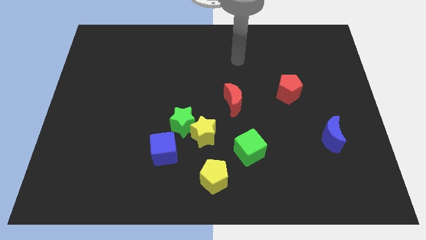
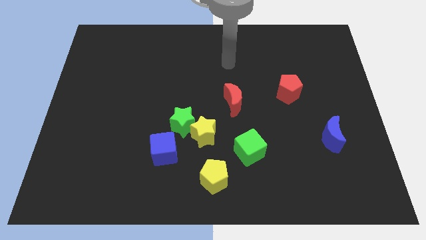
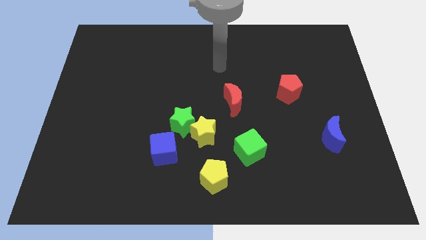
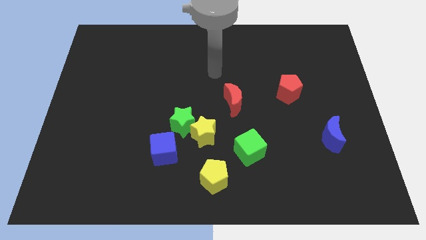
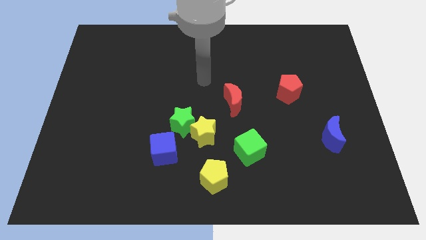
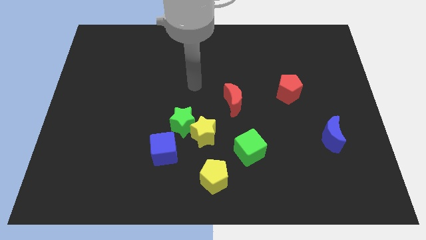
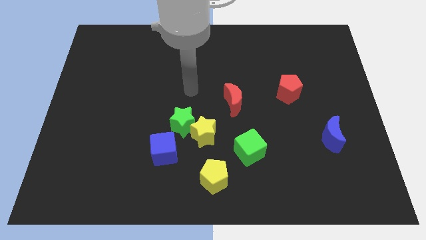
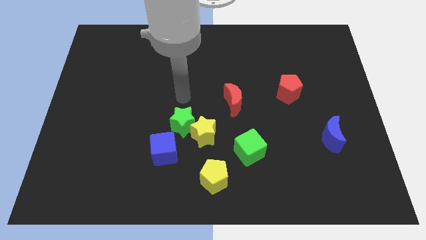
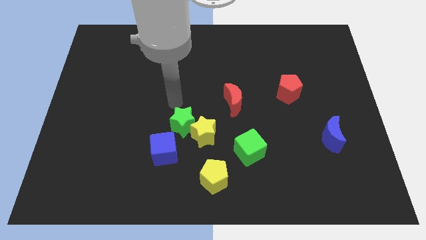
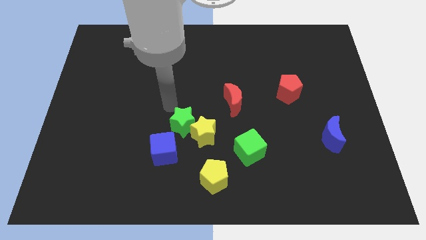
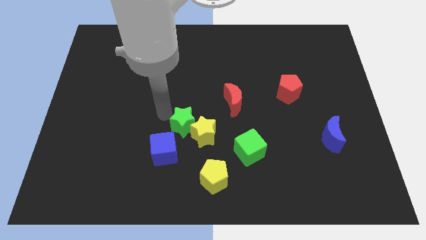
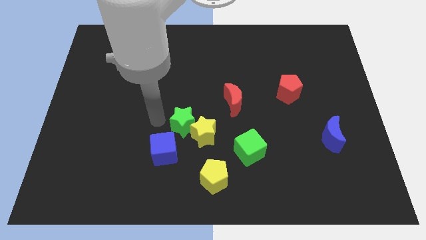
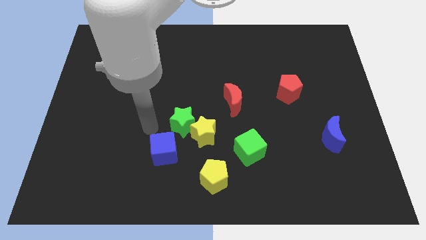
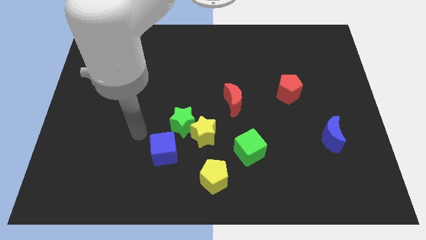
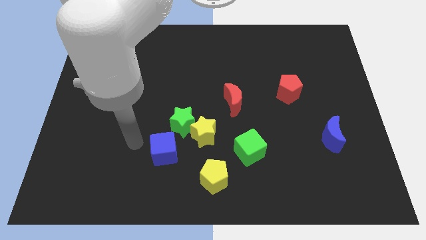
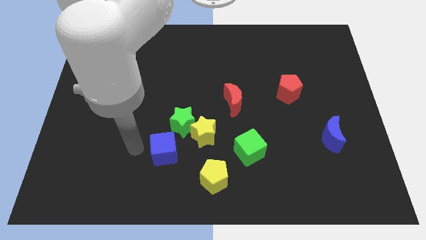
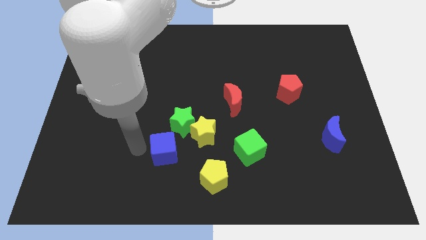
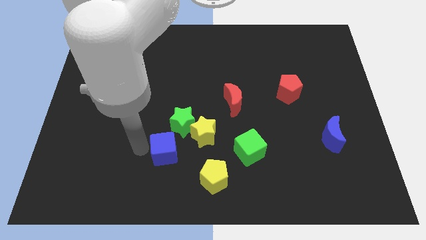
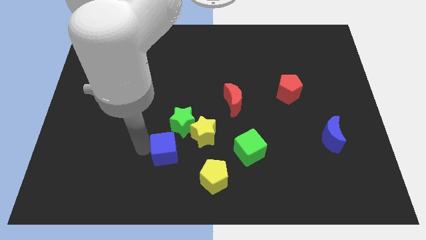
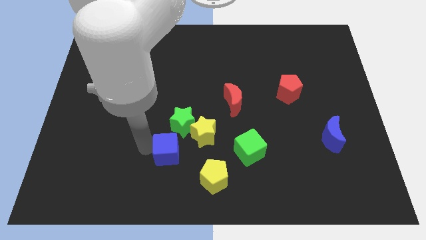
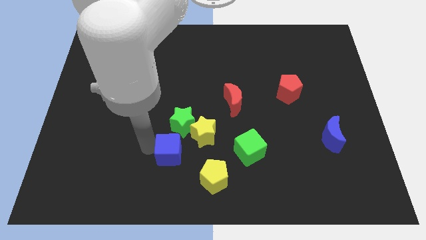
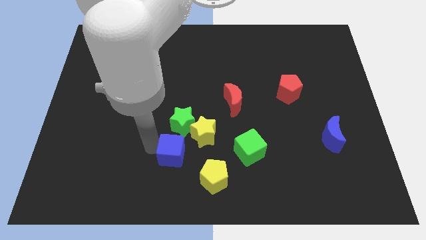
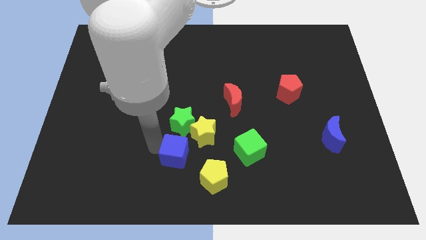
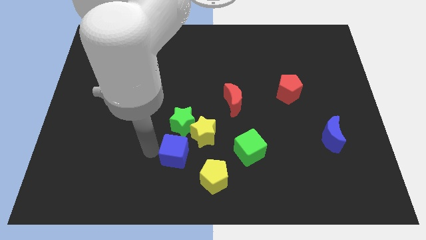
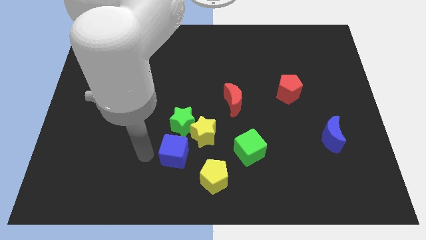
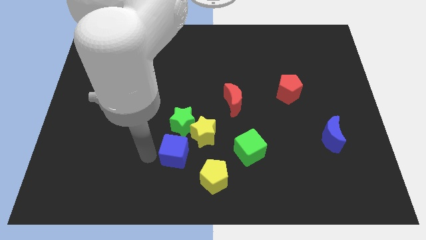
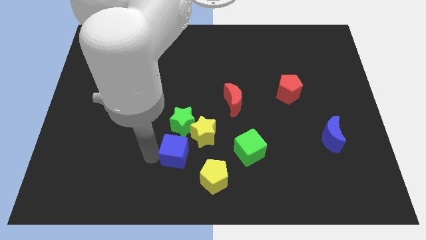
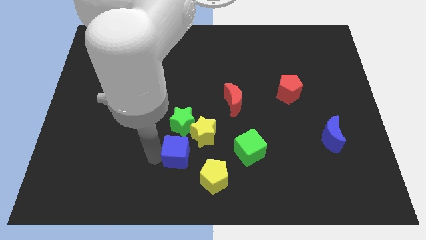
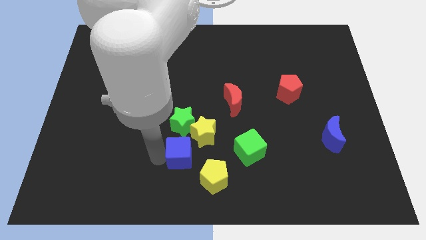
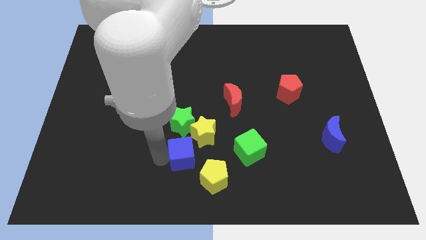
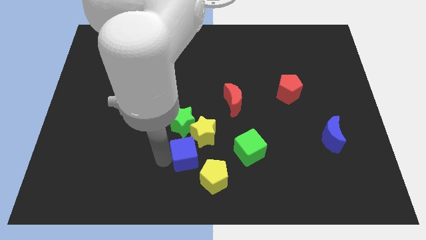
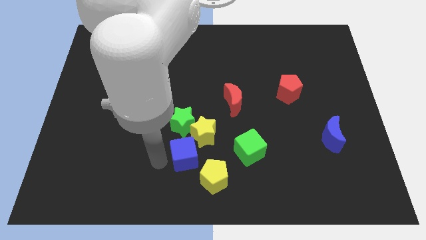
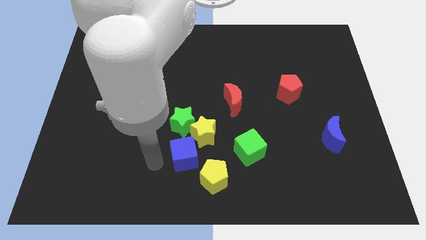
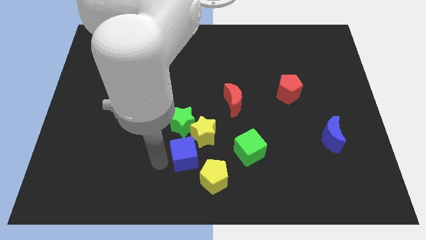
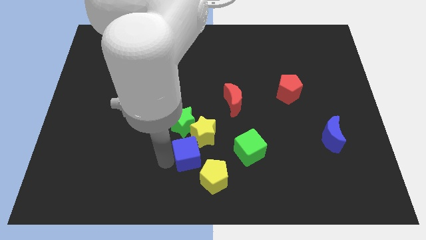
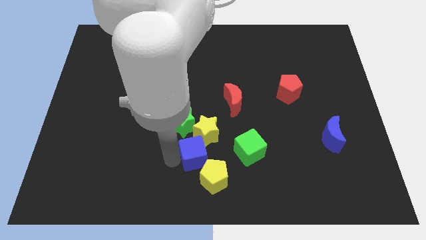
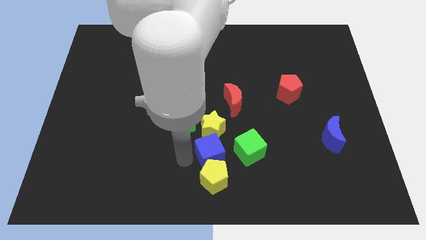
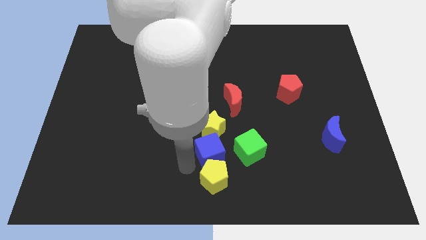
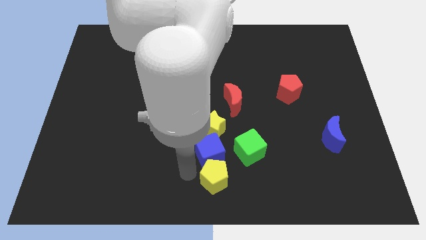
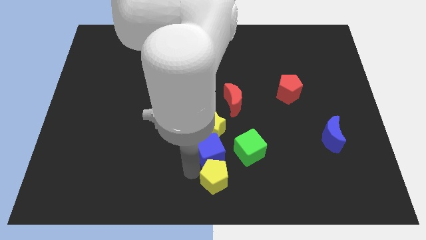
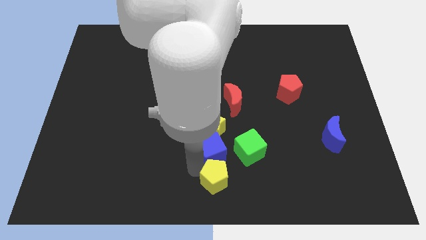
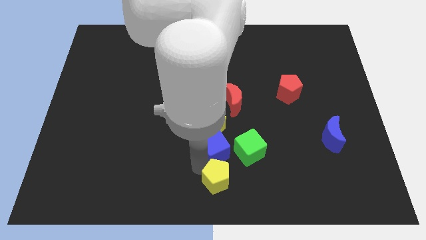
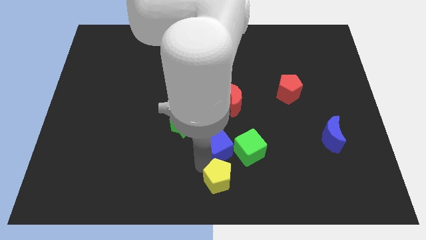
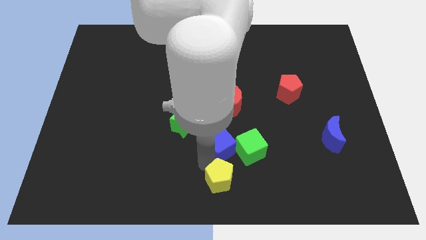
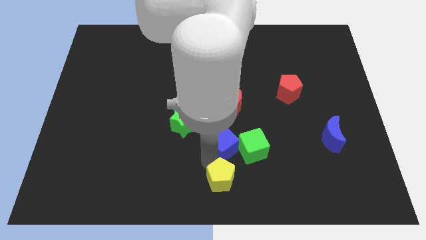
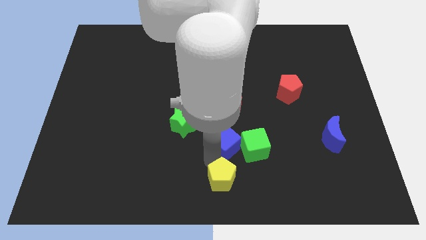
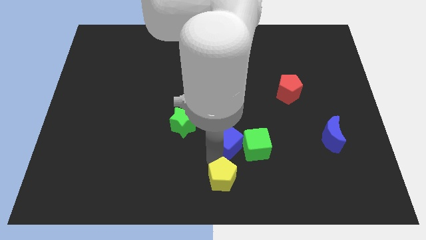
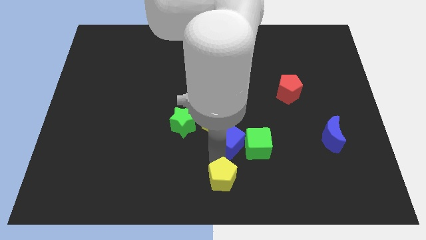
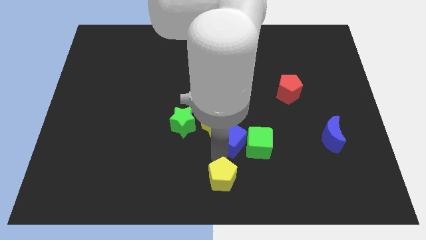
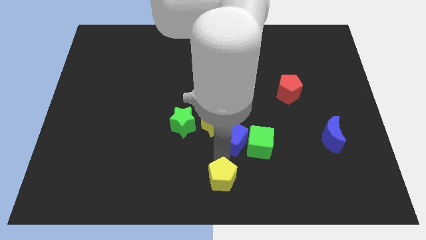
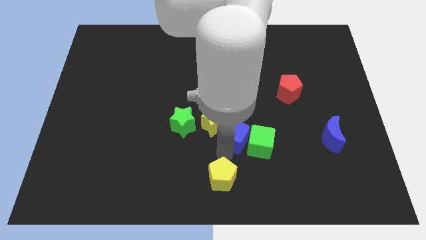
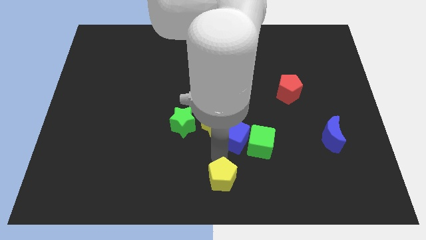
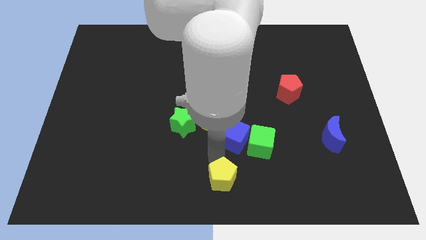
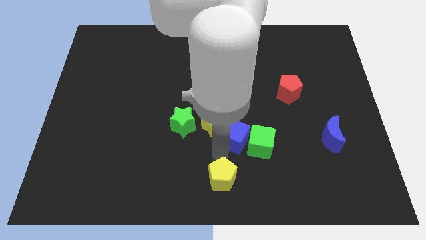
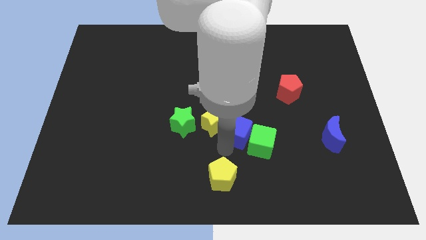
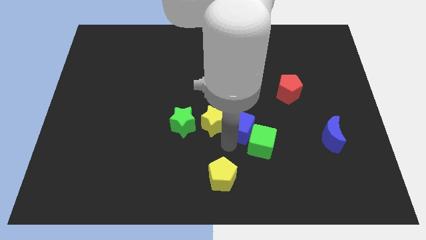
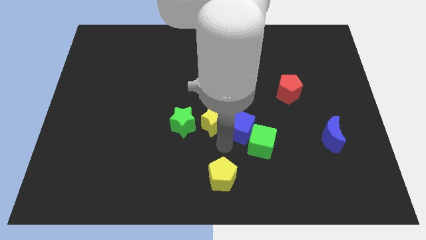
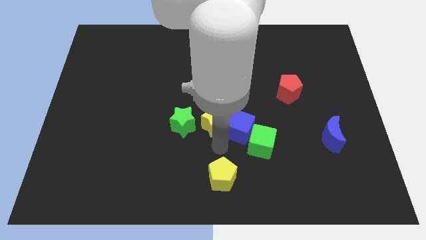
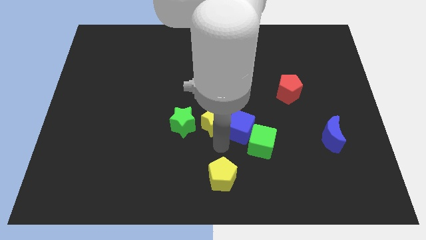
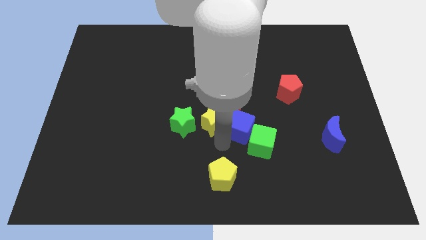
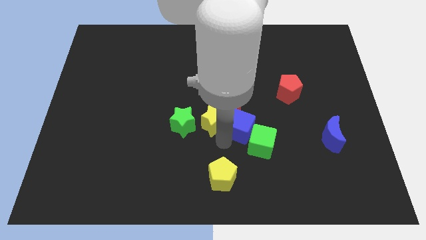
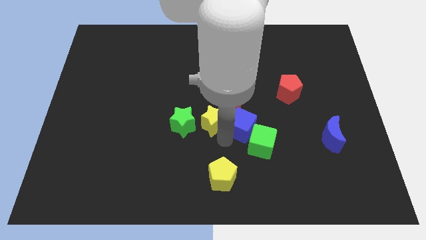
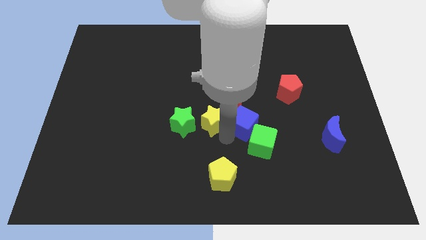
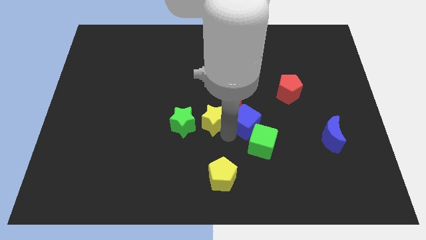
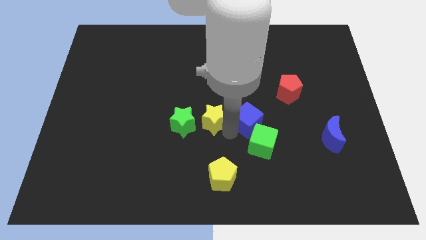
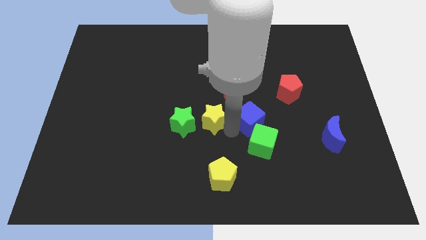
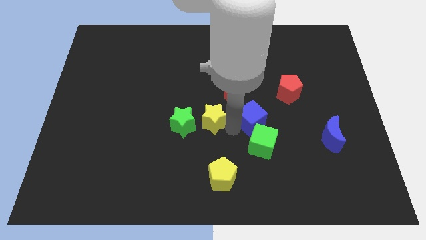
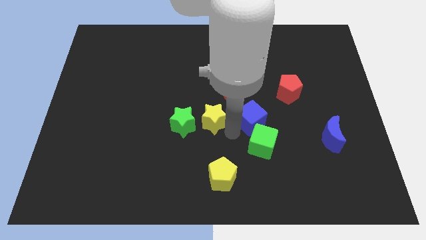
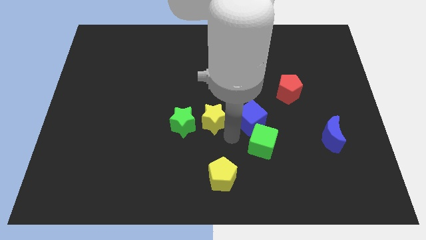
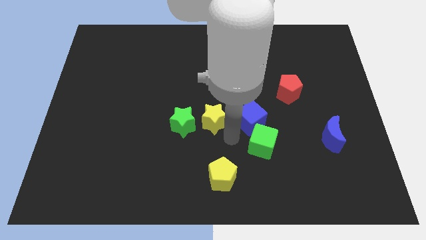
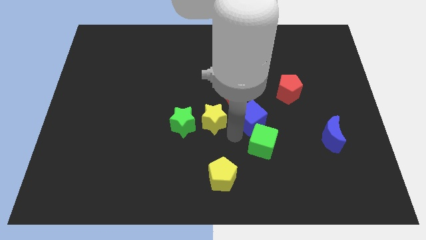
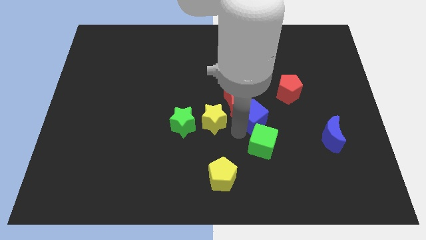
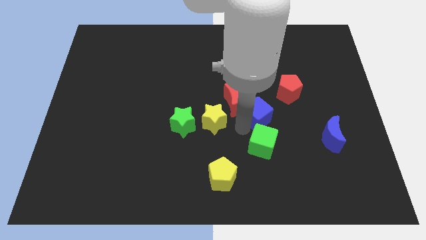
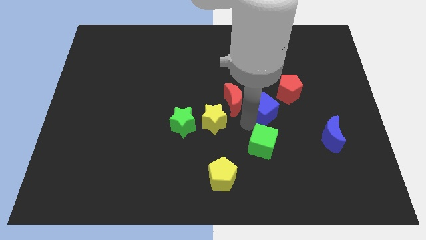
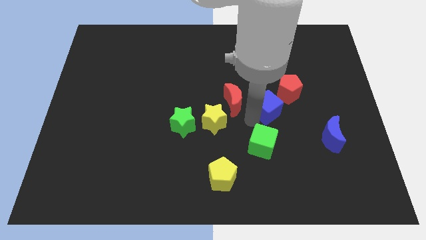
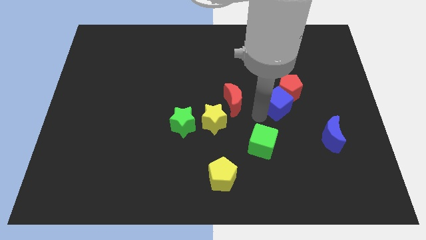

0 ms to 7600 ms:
slide the blue cube towards the red pentagon

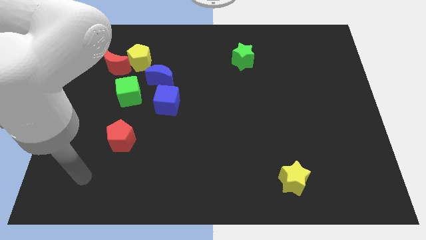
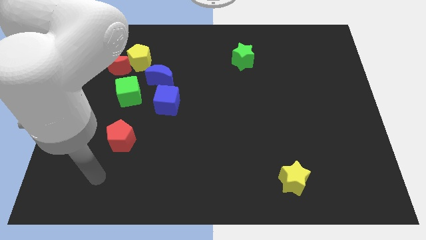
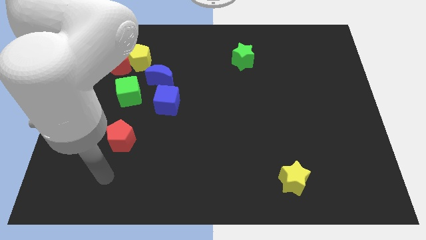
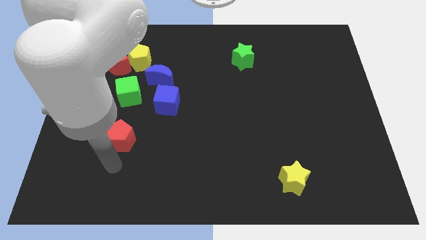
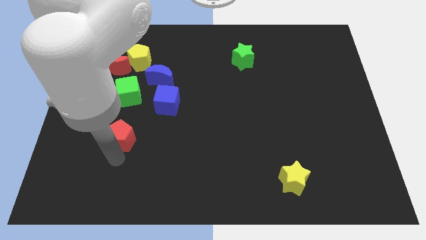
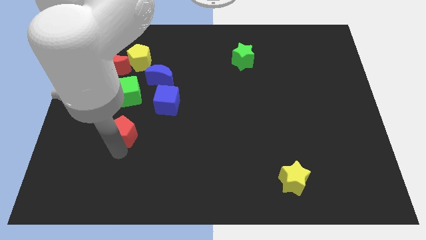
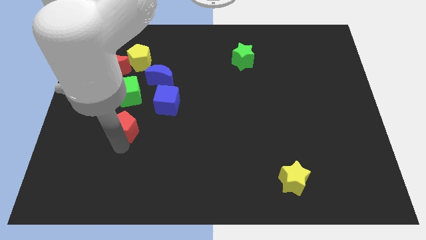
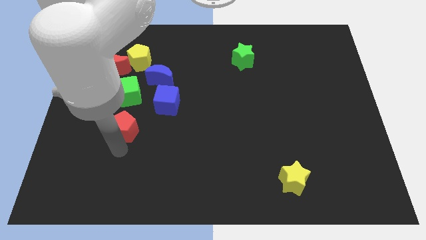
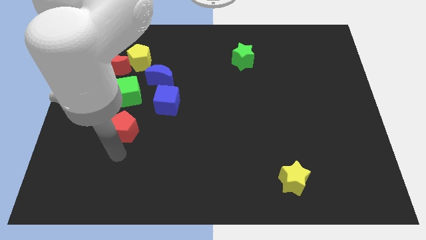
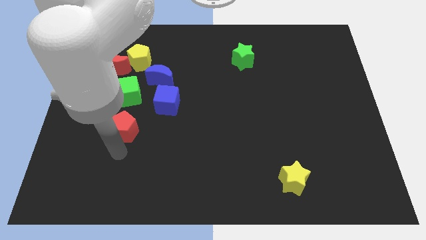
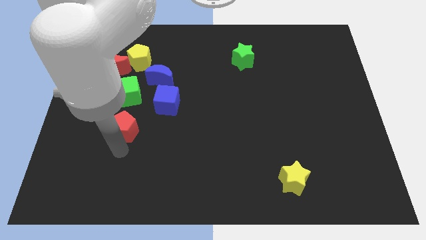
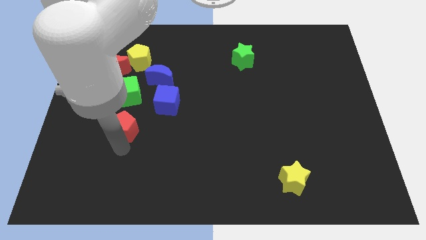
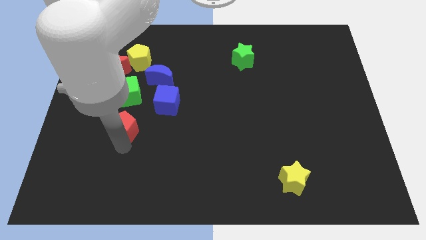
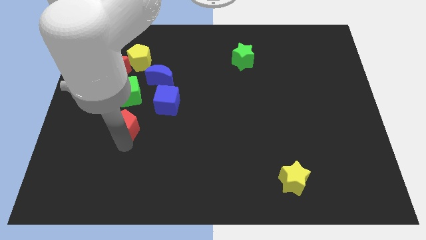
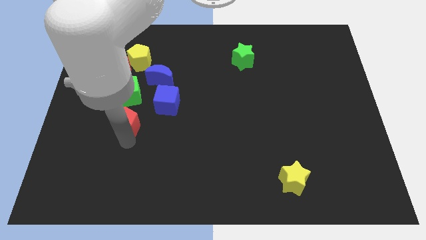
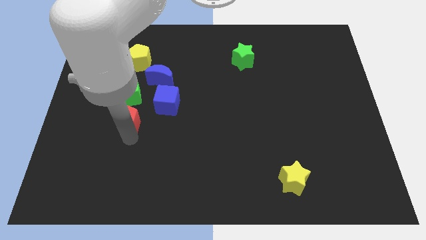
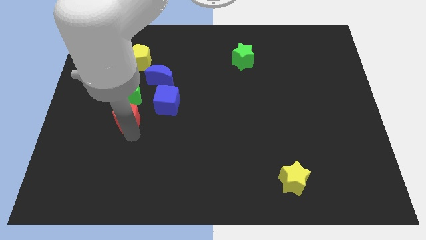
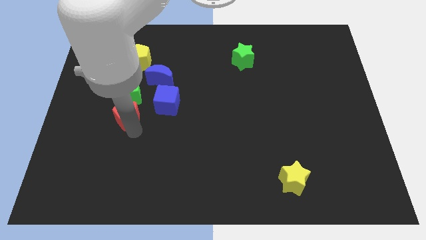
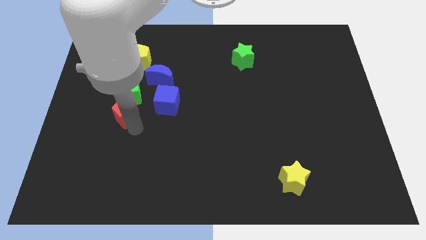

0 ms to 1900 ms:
move the red pentagon next to the green cube
